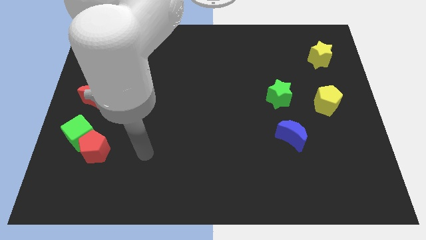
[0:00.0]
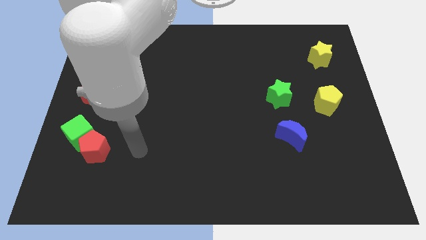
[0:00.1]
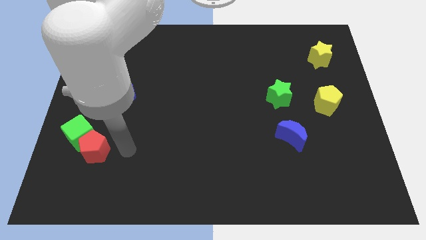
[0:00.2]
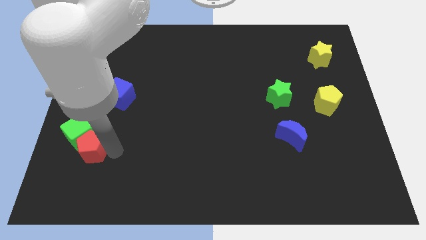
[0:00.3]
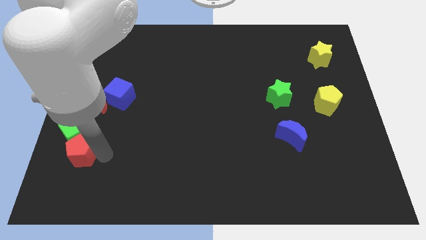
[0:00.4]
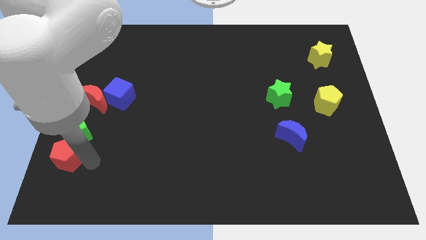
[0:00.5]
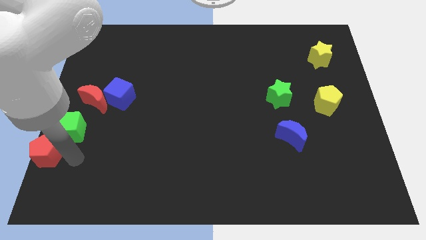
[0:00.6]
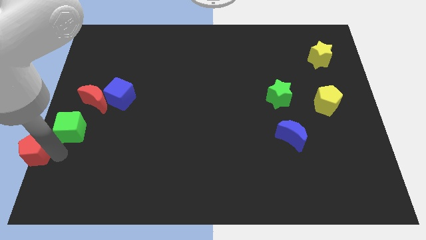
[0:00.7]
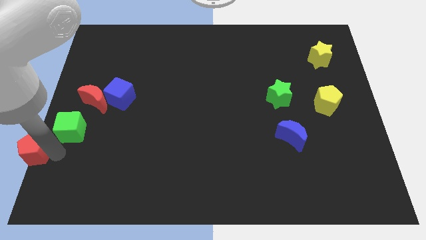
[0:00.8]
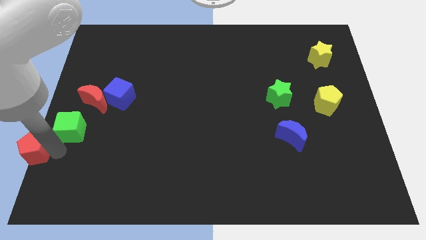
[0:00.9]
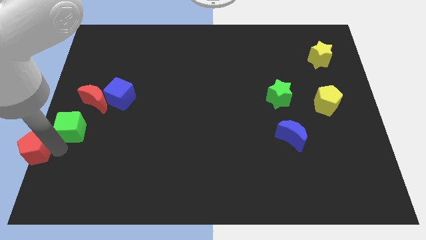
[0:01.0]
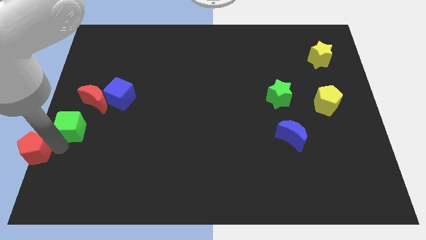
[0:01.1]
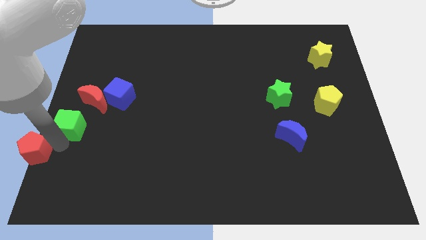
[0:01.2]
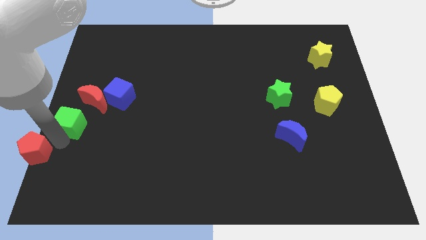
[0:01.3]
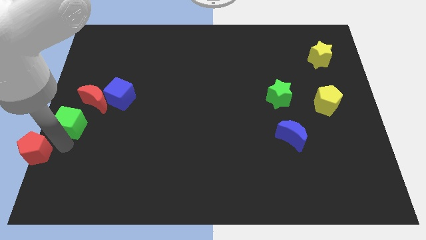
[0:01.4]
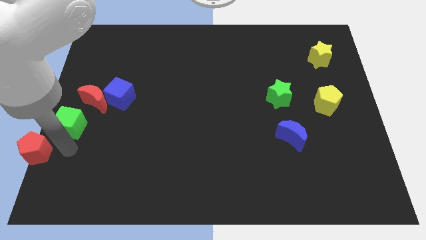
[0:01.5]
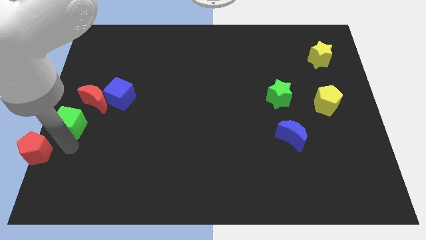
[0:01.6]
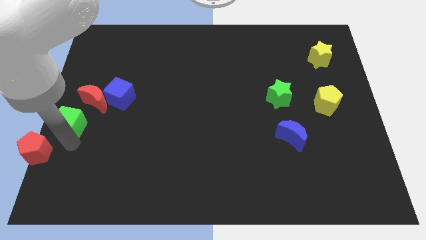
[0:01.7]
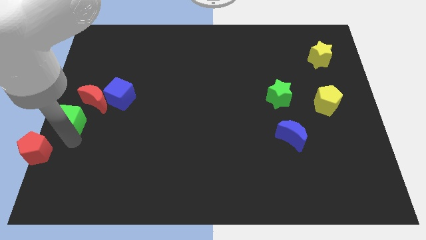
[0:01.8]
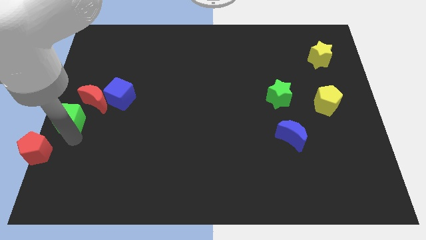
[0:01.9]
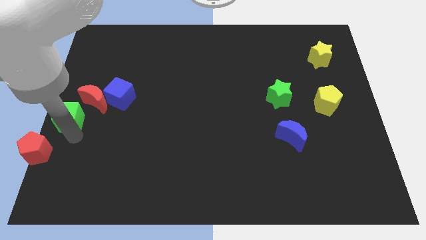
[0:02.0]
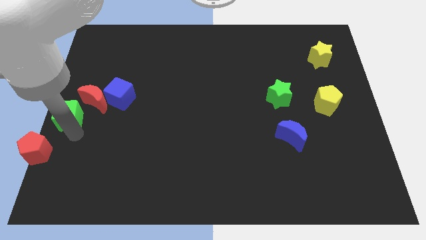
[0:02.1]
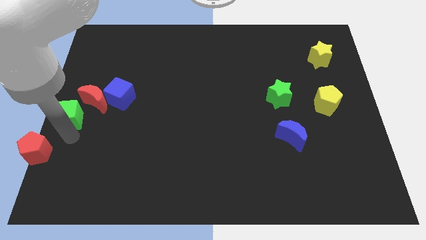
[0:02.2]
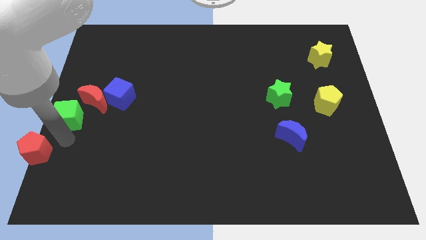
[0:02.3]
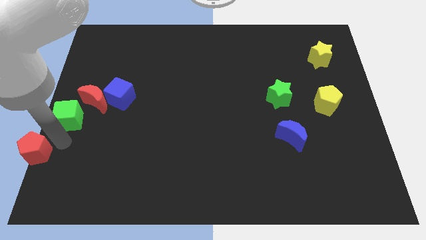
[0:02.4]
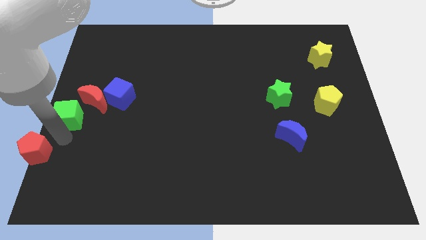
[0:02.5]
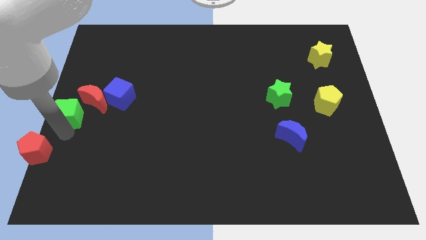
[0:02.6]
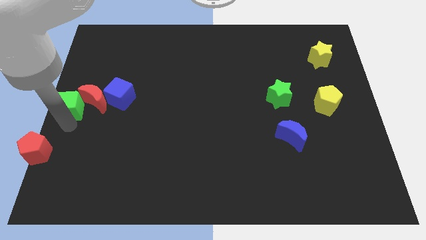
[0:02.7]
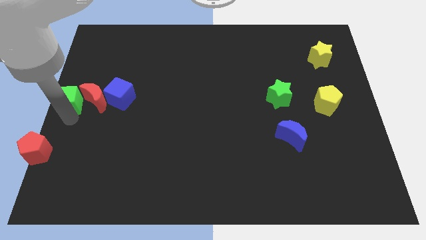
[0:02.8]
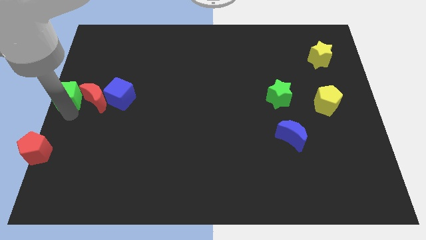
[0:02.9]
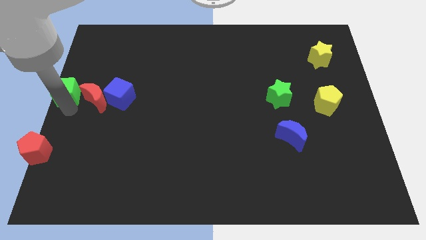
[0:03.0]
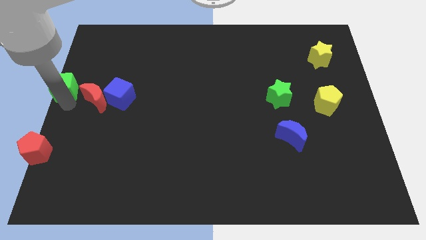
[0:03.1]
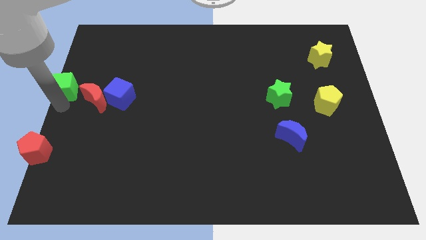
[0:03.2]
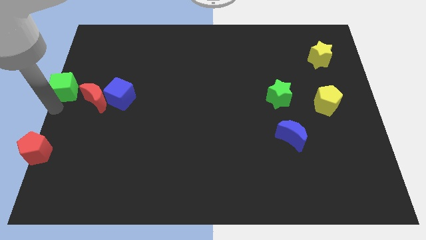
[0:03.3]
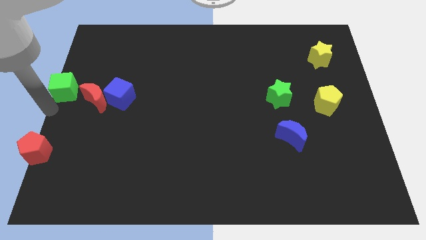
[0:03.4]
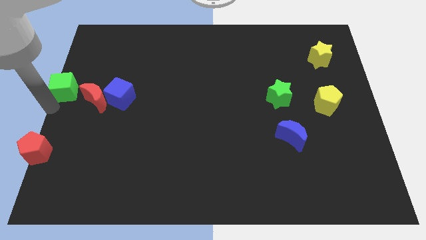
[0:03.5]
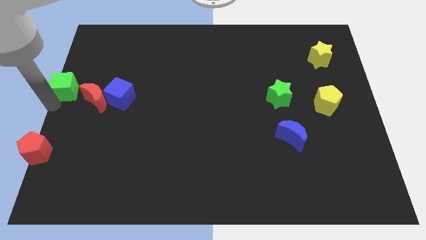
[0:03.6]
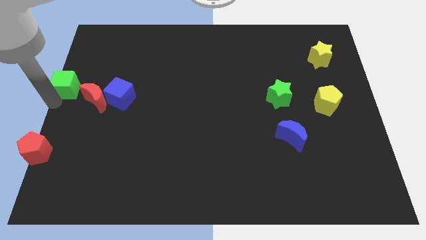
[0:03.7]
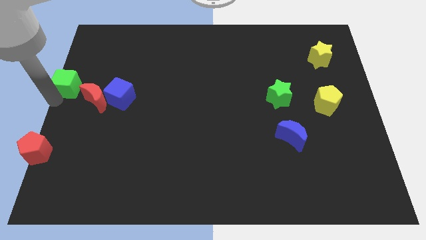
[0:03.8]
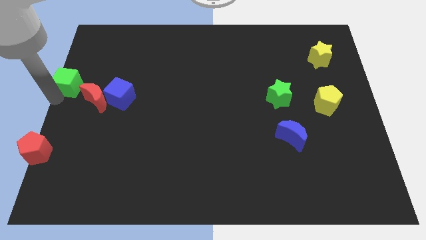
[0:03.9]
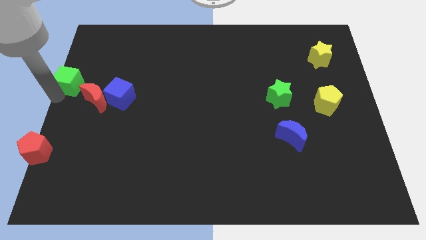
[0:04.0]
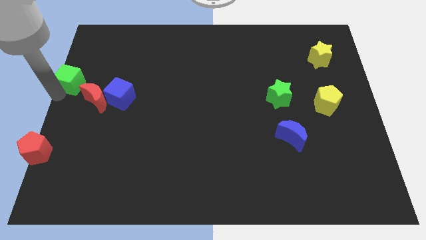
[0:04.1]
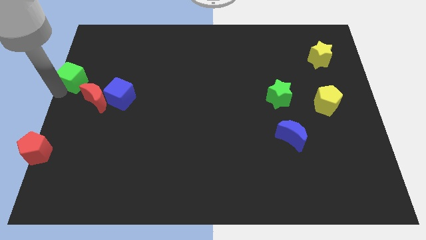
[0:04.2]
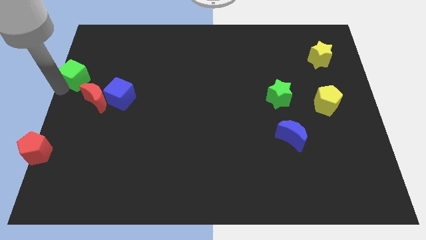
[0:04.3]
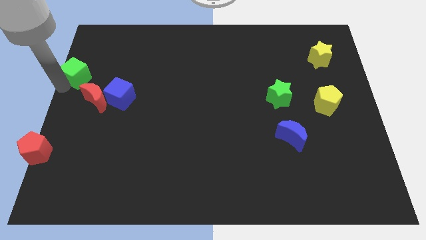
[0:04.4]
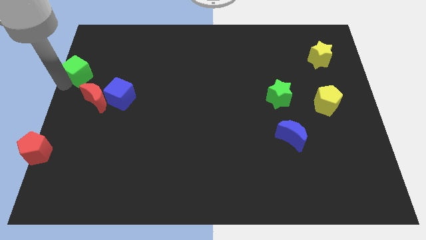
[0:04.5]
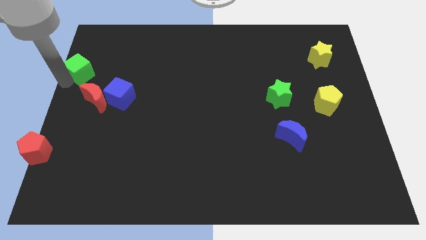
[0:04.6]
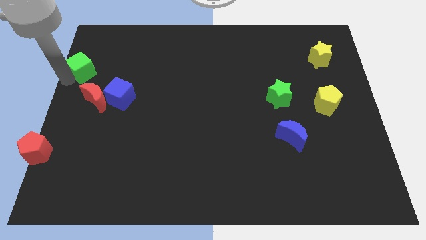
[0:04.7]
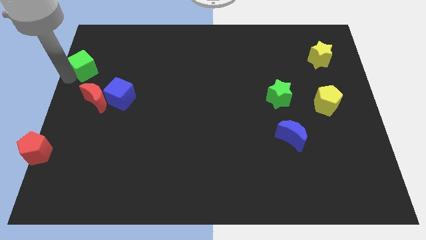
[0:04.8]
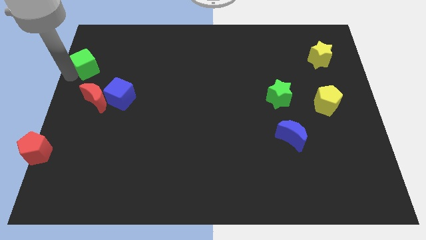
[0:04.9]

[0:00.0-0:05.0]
push the green cube above the red moon

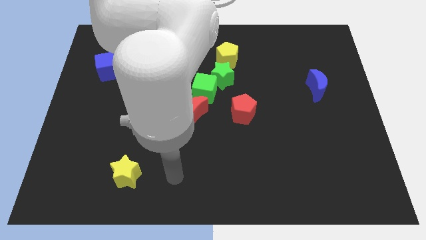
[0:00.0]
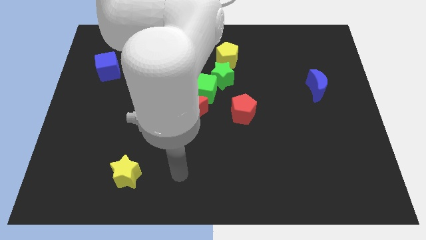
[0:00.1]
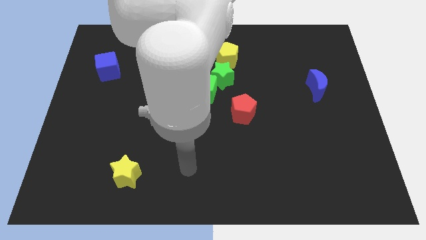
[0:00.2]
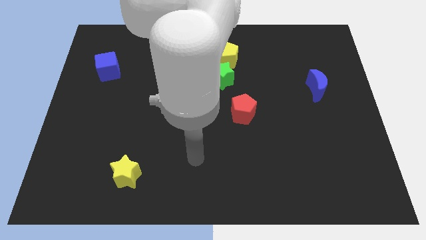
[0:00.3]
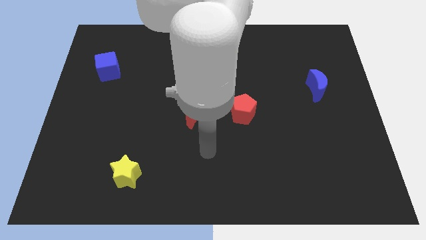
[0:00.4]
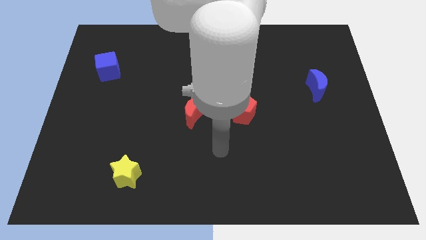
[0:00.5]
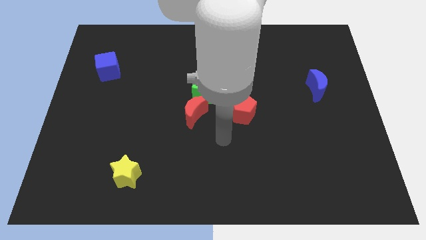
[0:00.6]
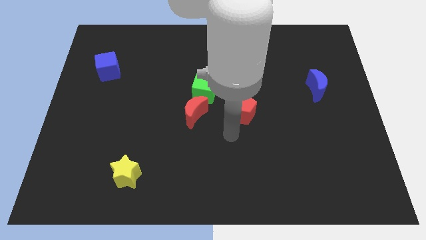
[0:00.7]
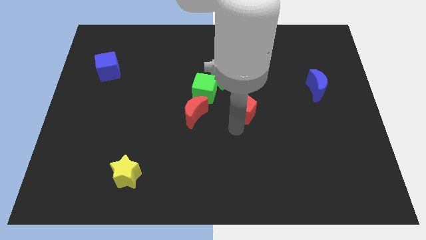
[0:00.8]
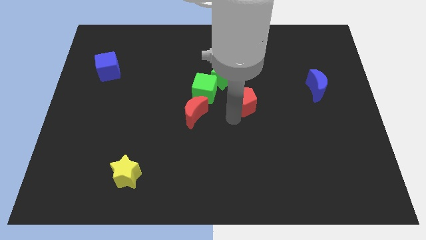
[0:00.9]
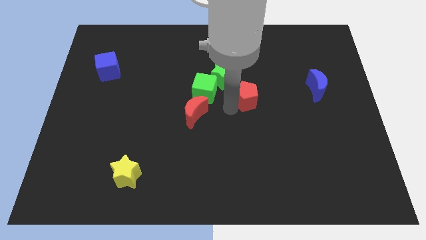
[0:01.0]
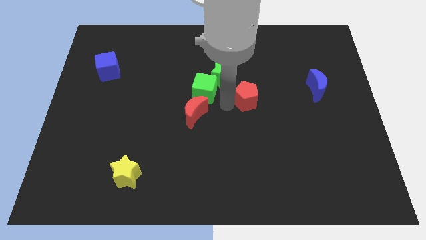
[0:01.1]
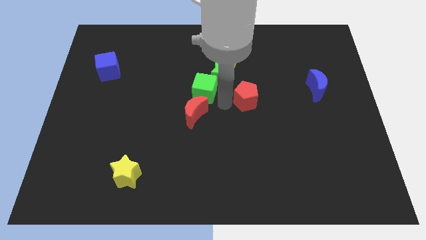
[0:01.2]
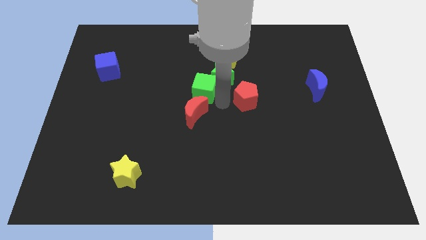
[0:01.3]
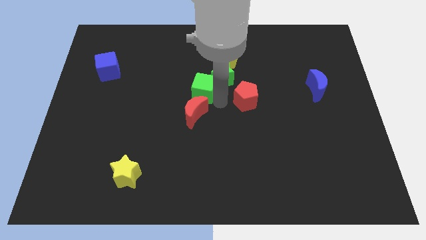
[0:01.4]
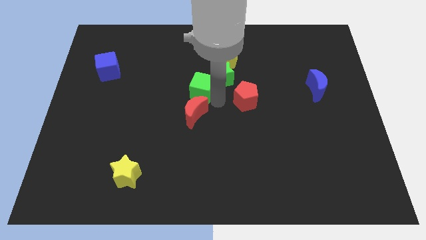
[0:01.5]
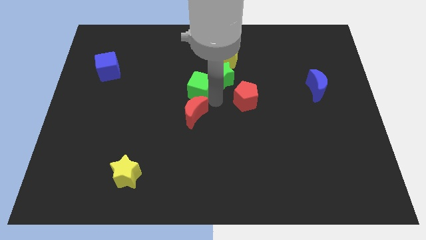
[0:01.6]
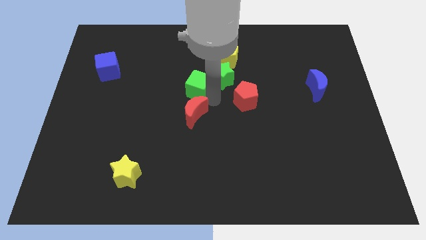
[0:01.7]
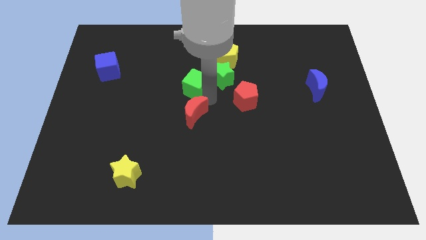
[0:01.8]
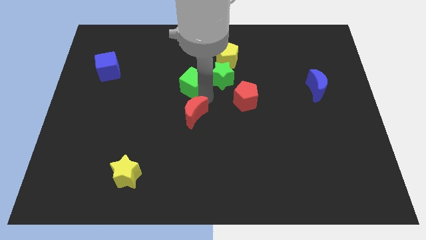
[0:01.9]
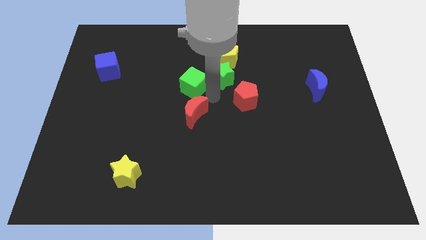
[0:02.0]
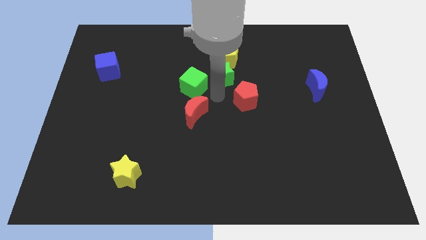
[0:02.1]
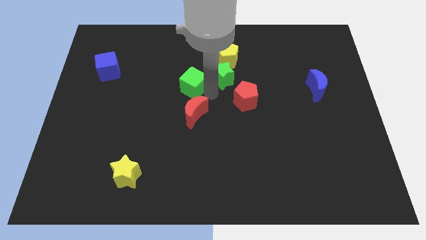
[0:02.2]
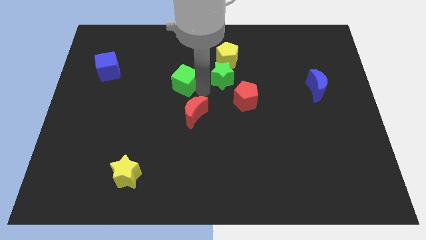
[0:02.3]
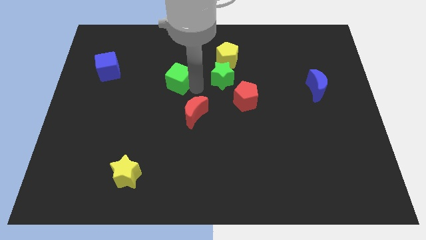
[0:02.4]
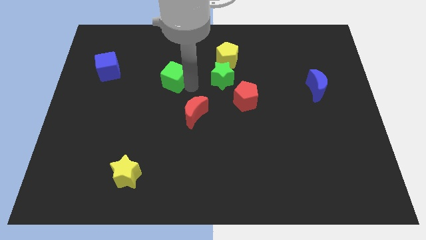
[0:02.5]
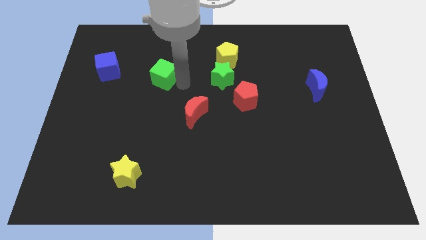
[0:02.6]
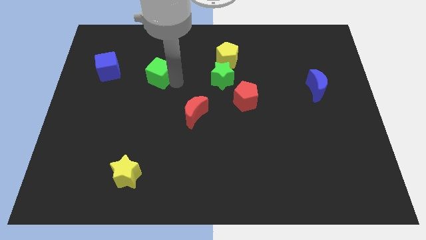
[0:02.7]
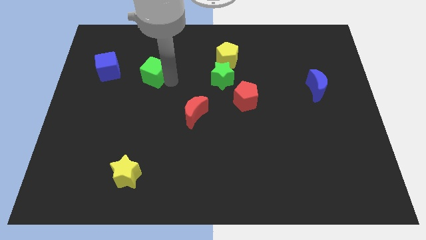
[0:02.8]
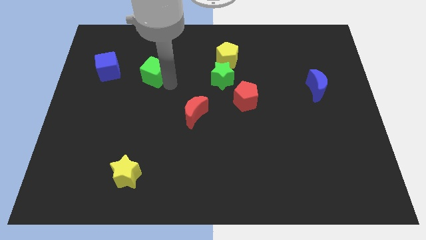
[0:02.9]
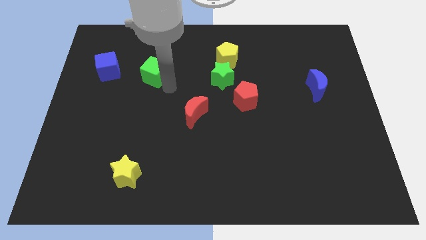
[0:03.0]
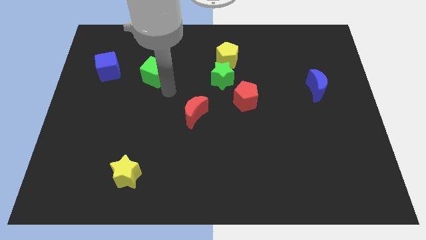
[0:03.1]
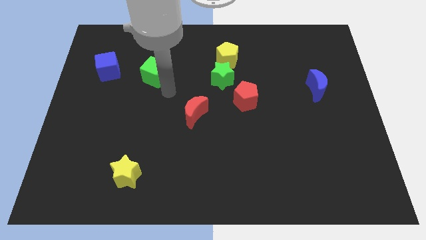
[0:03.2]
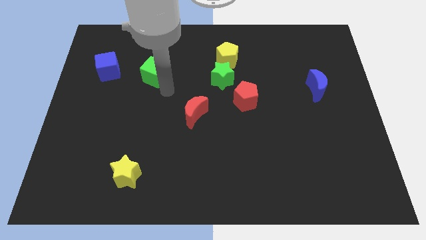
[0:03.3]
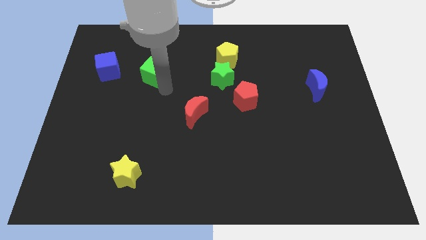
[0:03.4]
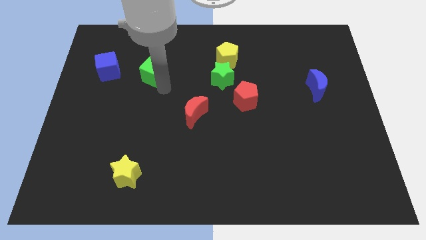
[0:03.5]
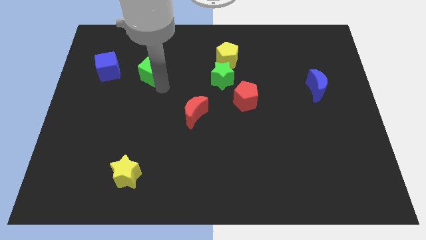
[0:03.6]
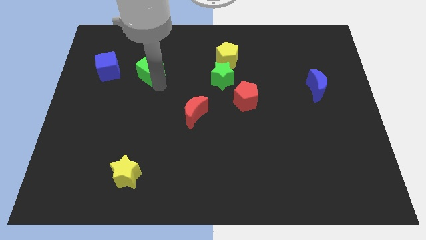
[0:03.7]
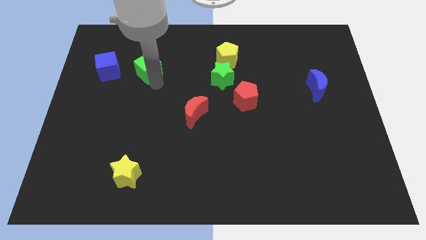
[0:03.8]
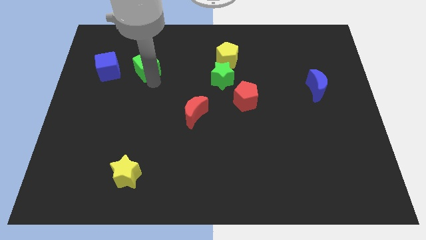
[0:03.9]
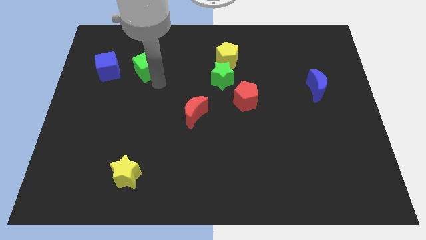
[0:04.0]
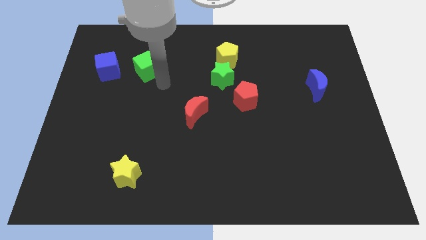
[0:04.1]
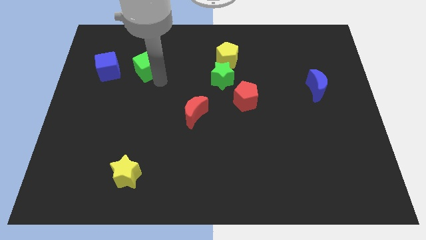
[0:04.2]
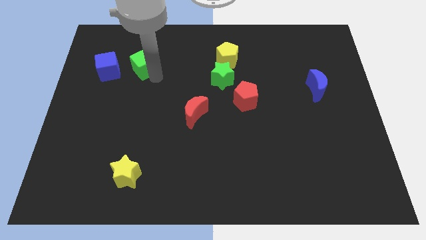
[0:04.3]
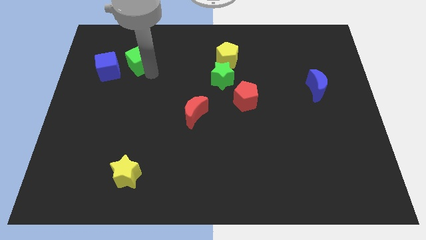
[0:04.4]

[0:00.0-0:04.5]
move the green cube diagonally up and to the right of the blue cube
